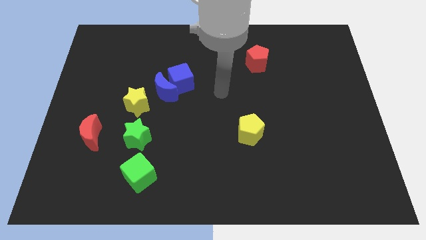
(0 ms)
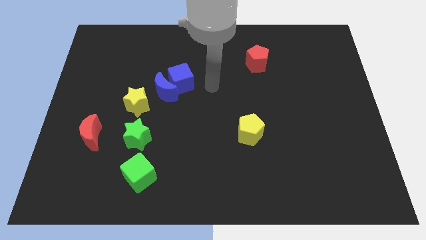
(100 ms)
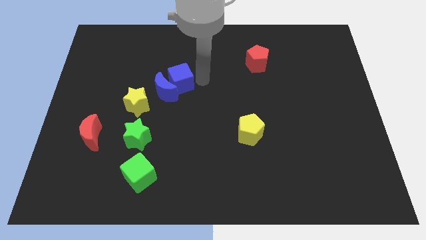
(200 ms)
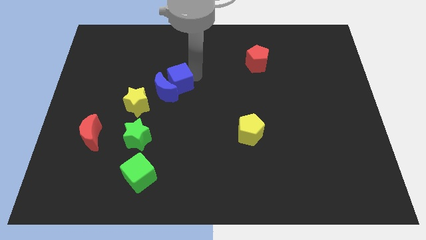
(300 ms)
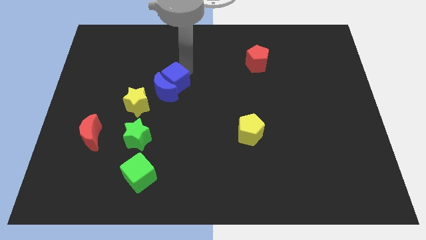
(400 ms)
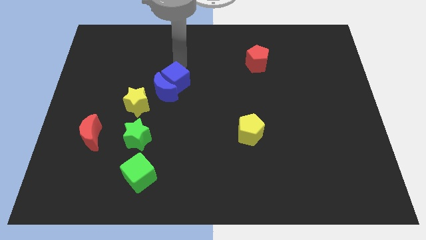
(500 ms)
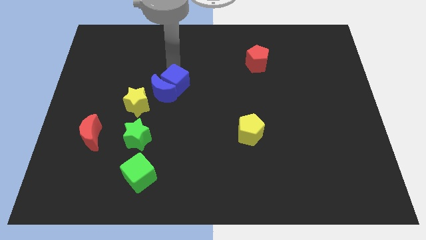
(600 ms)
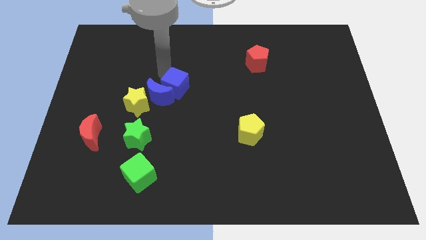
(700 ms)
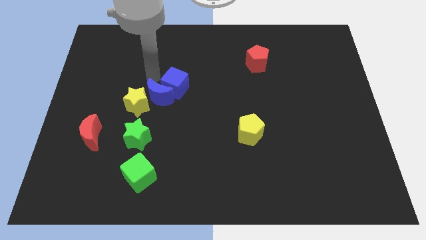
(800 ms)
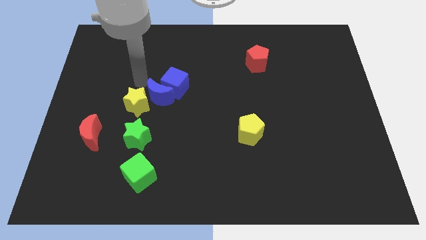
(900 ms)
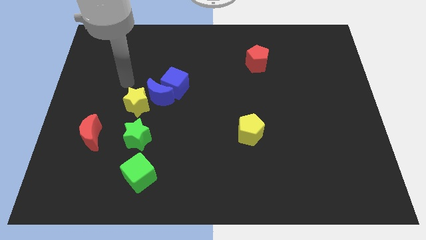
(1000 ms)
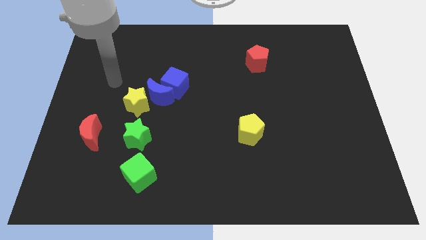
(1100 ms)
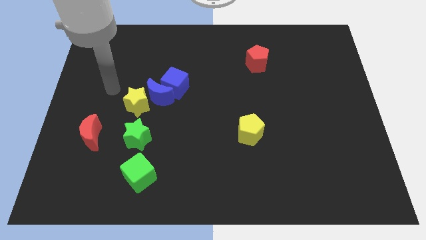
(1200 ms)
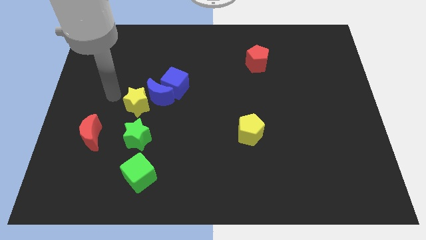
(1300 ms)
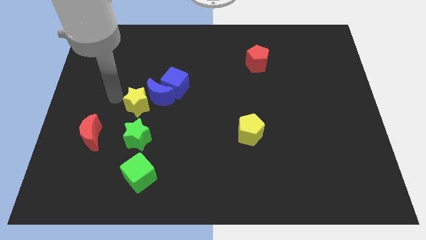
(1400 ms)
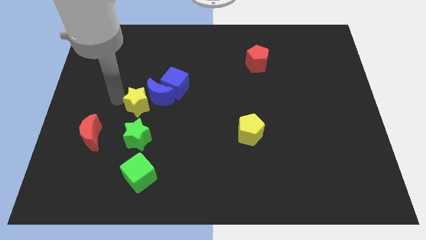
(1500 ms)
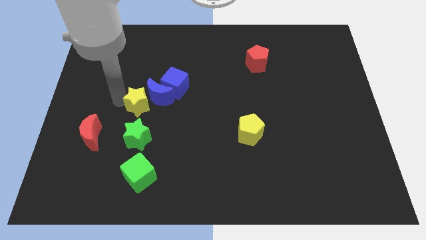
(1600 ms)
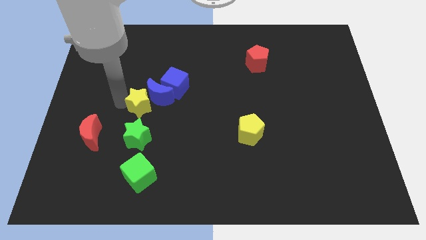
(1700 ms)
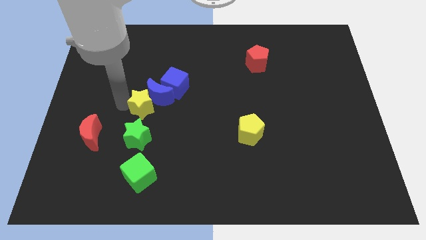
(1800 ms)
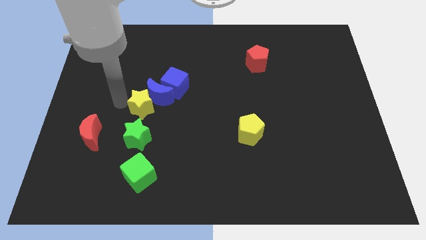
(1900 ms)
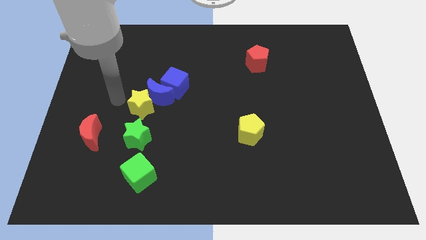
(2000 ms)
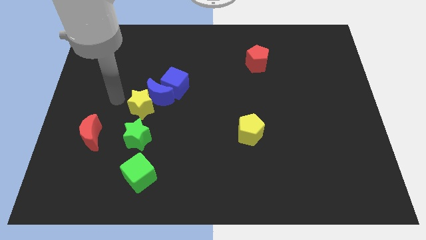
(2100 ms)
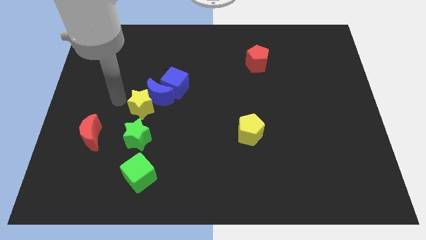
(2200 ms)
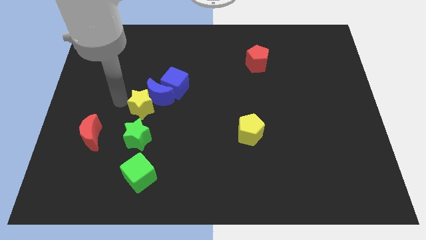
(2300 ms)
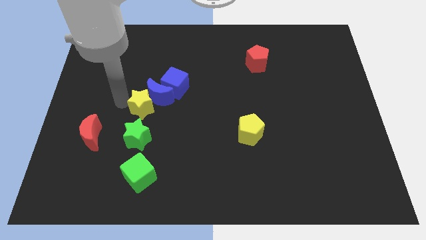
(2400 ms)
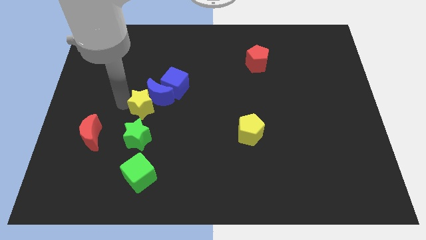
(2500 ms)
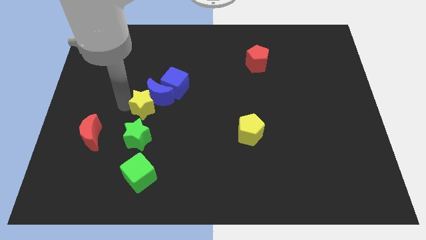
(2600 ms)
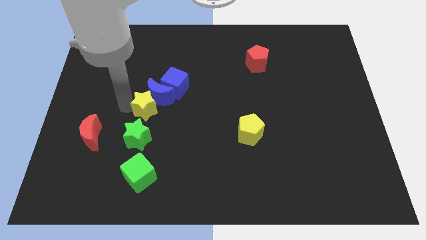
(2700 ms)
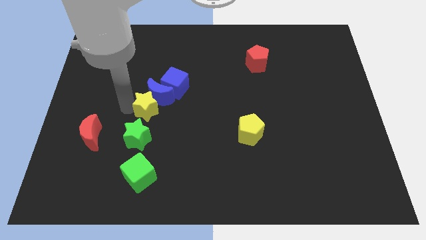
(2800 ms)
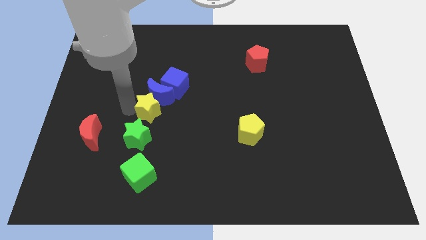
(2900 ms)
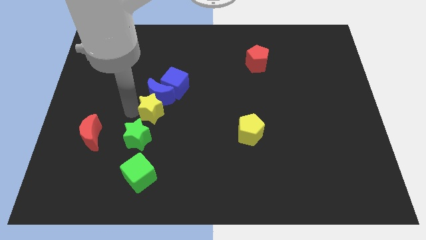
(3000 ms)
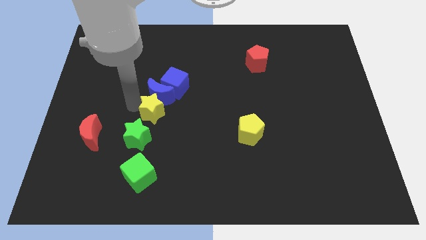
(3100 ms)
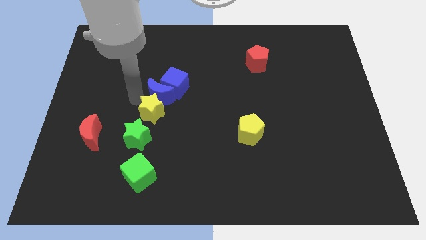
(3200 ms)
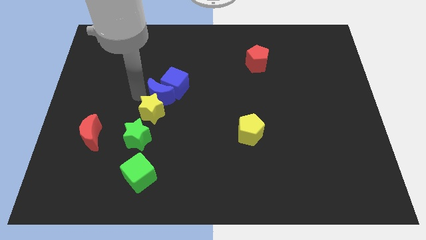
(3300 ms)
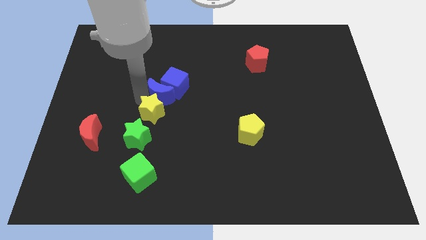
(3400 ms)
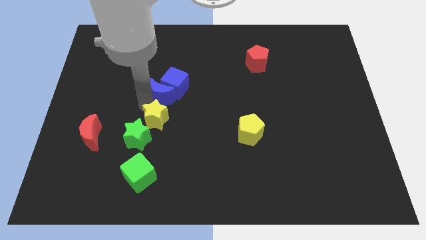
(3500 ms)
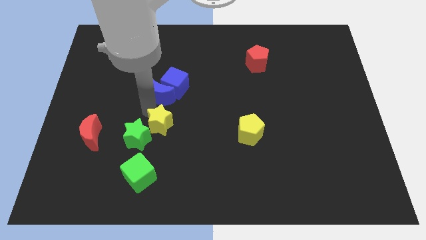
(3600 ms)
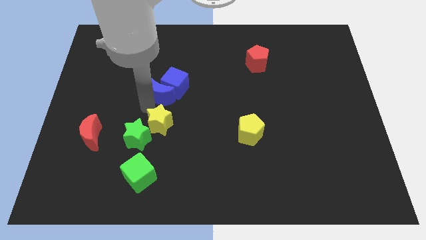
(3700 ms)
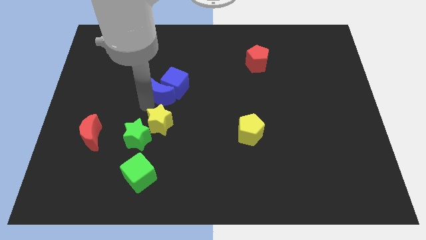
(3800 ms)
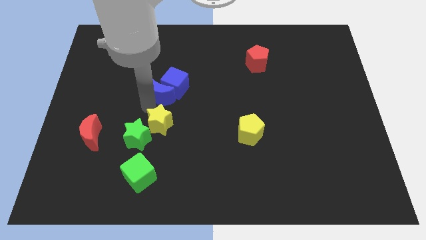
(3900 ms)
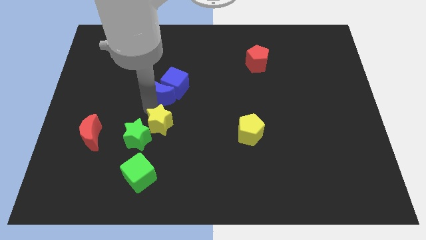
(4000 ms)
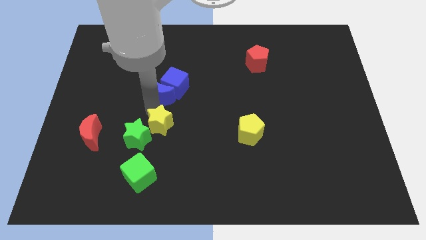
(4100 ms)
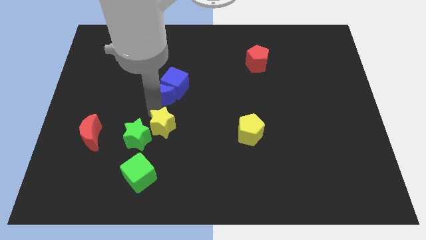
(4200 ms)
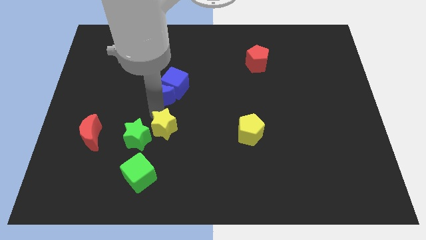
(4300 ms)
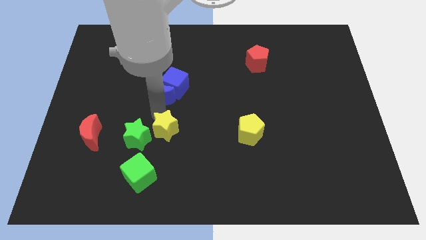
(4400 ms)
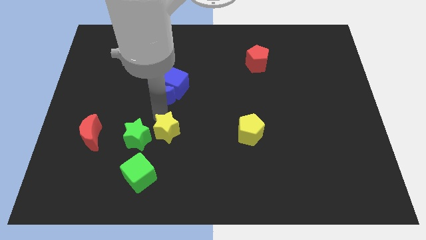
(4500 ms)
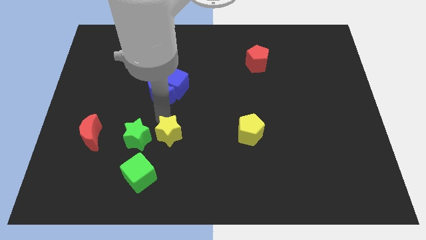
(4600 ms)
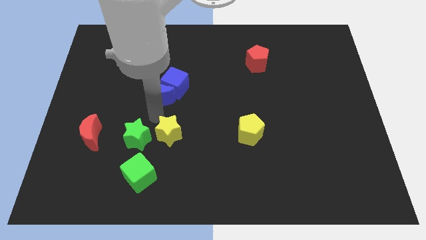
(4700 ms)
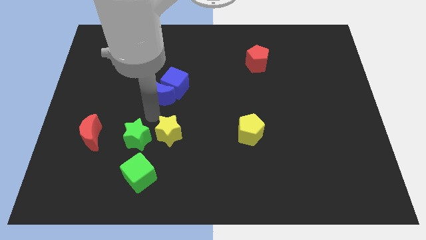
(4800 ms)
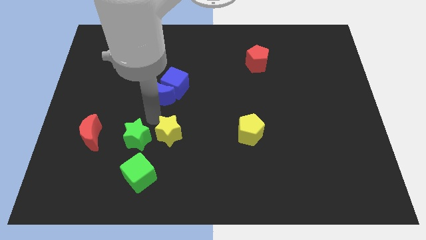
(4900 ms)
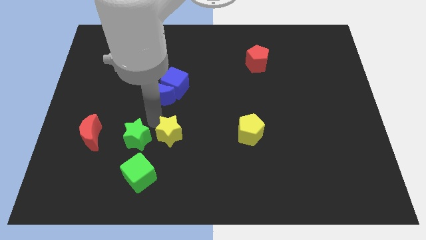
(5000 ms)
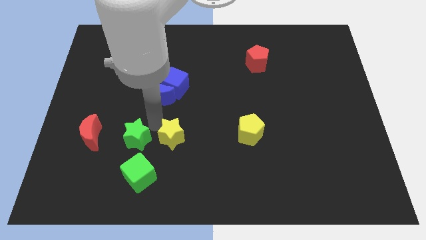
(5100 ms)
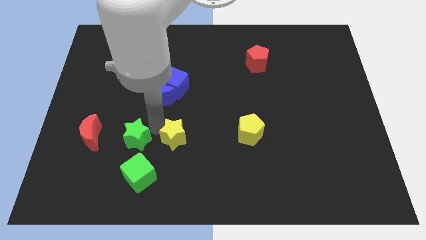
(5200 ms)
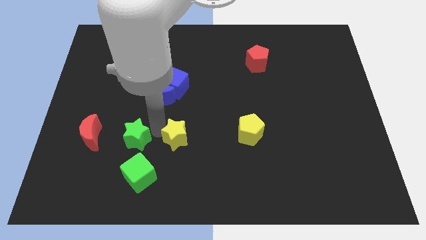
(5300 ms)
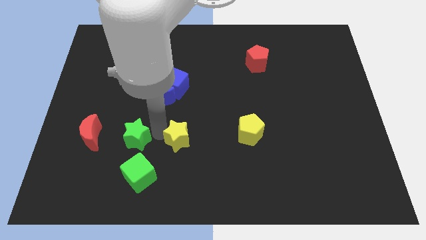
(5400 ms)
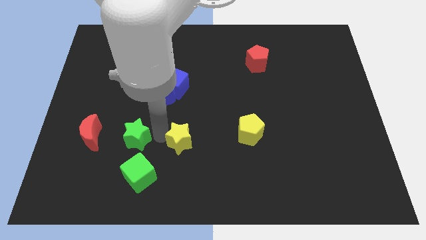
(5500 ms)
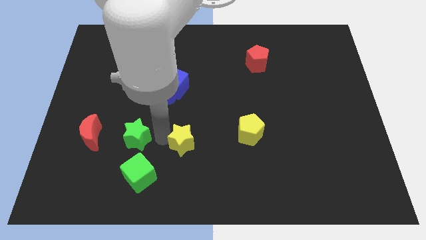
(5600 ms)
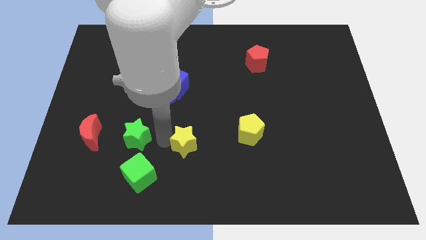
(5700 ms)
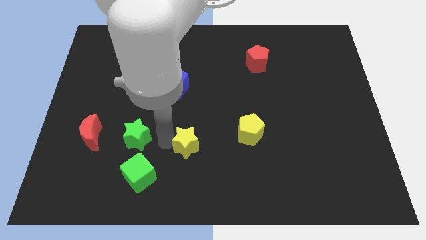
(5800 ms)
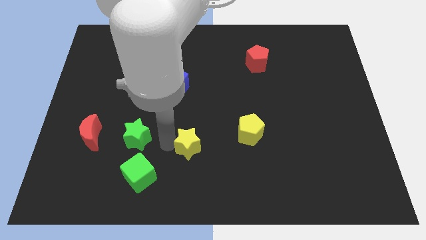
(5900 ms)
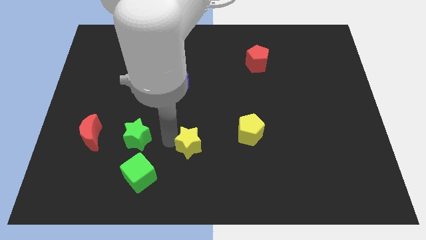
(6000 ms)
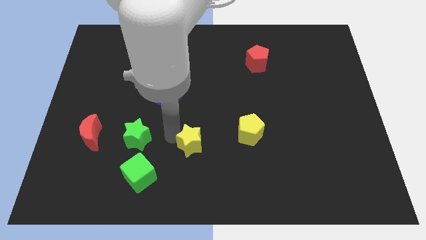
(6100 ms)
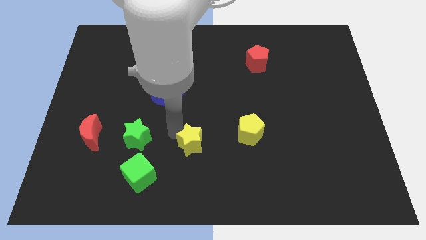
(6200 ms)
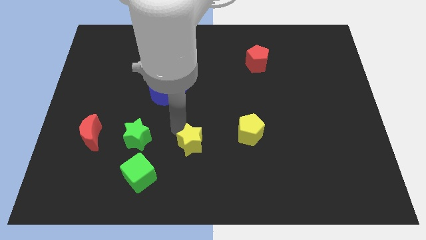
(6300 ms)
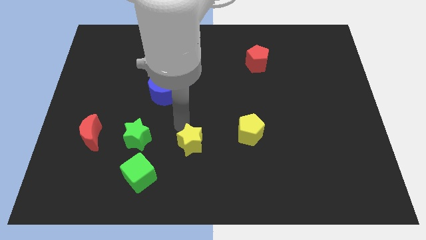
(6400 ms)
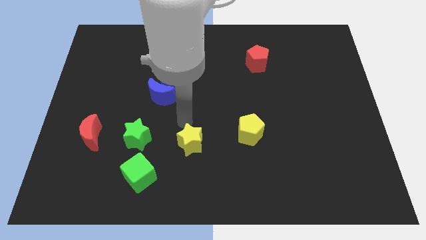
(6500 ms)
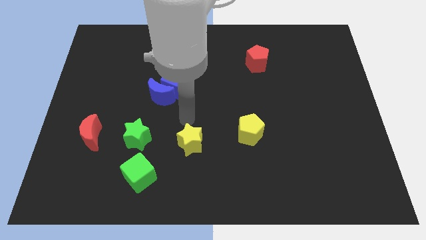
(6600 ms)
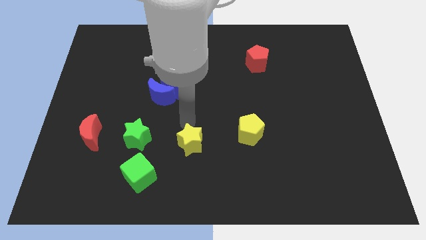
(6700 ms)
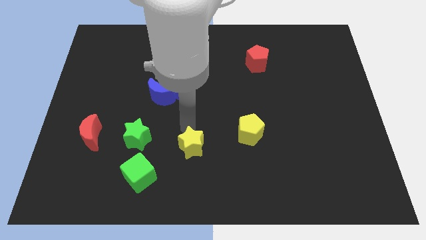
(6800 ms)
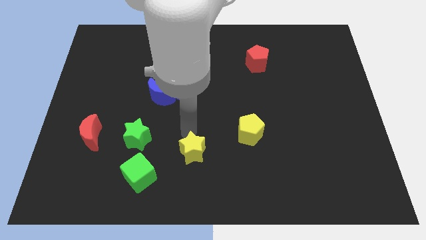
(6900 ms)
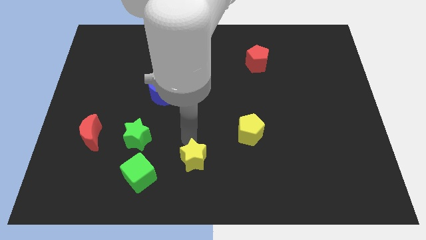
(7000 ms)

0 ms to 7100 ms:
slide the yellow star to the bottom

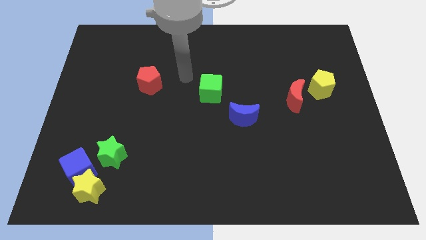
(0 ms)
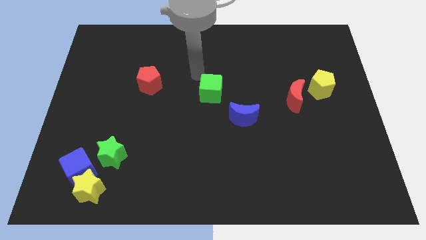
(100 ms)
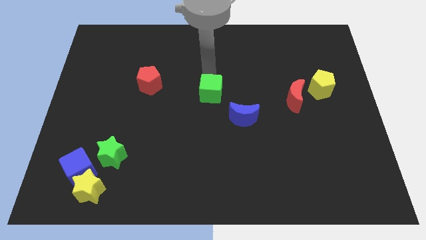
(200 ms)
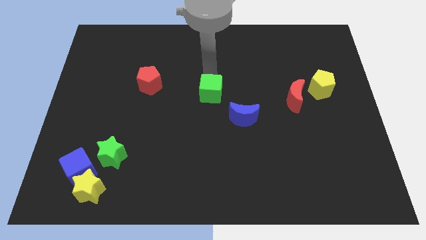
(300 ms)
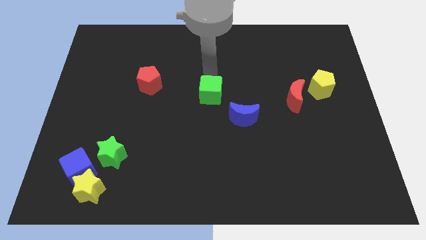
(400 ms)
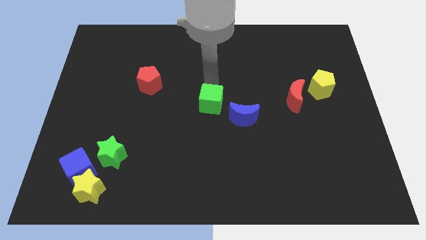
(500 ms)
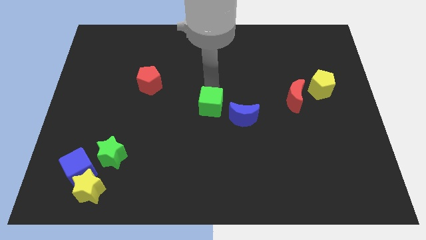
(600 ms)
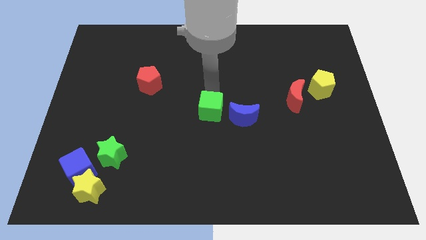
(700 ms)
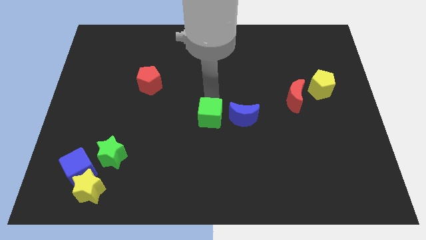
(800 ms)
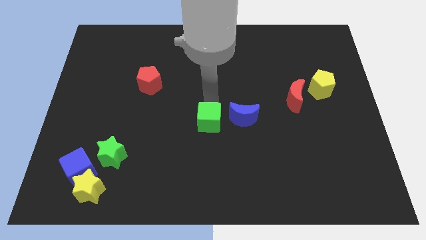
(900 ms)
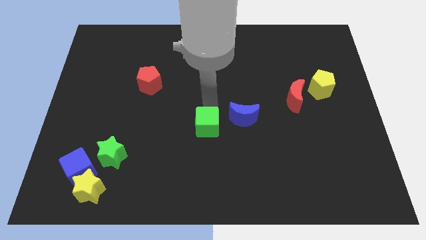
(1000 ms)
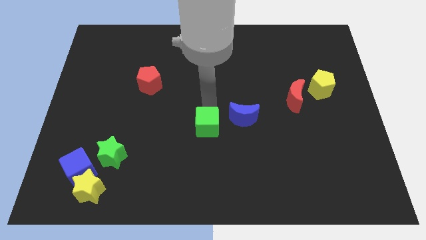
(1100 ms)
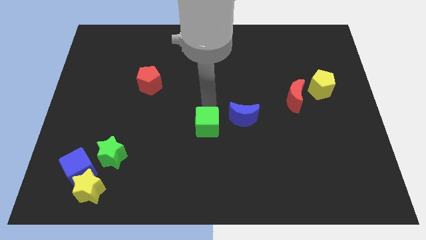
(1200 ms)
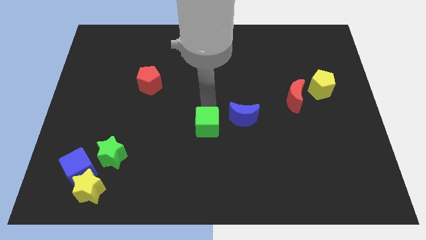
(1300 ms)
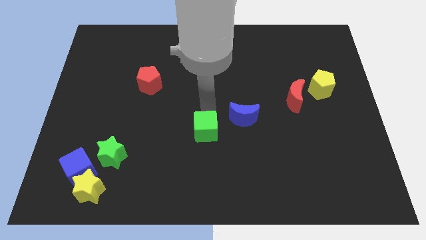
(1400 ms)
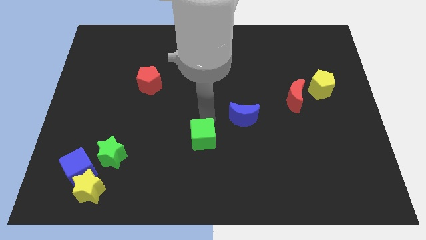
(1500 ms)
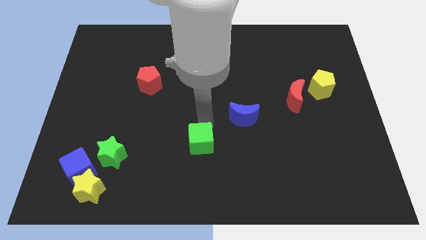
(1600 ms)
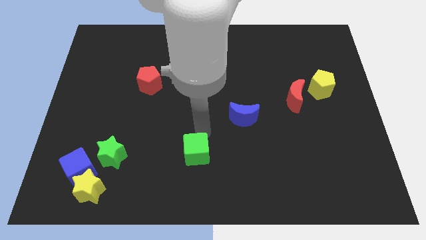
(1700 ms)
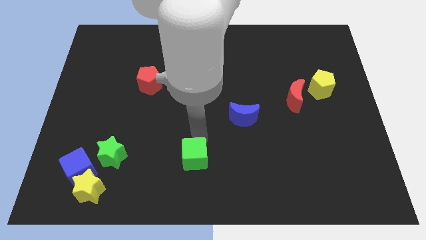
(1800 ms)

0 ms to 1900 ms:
put the green cube to the bottom side
